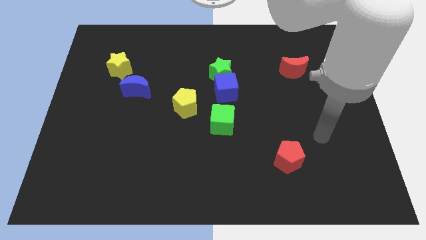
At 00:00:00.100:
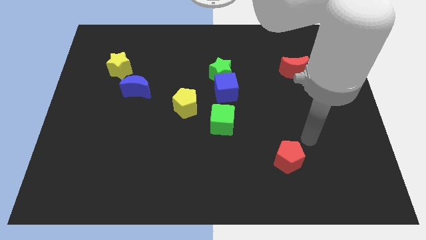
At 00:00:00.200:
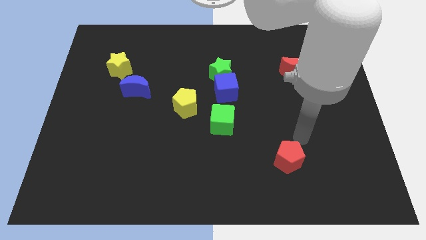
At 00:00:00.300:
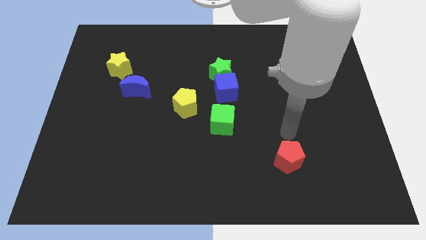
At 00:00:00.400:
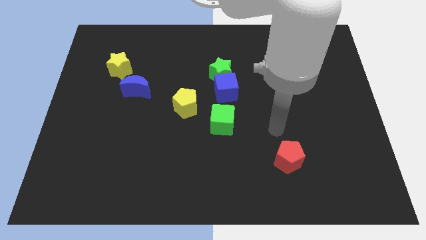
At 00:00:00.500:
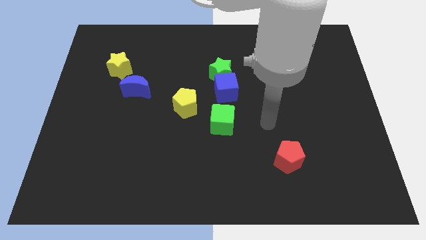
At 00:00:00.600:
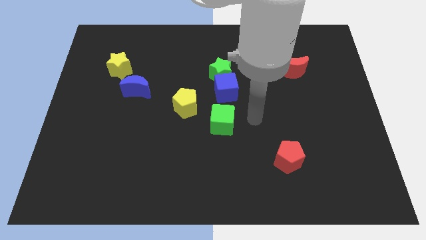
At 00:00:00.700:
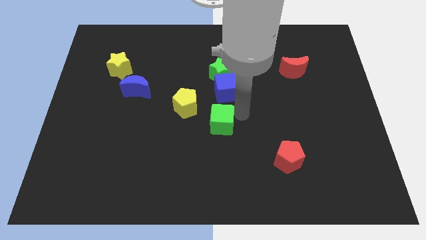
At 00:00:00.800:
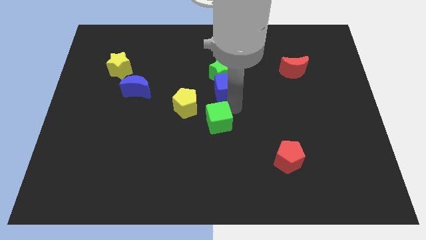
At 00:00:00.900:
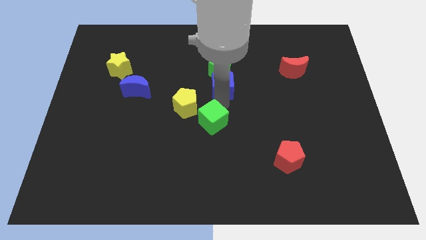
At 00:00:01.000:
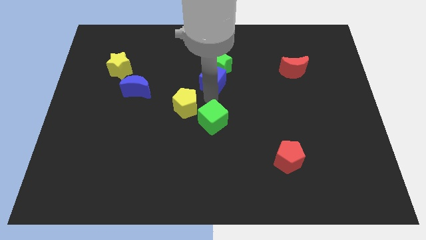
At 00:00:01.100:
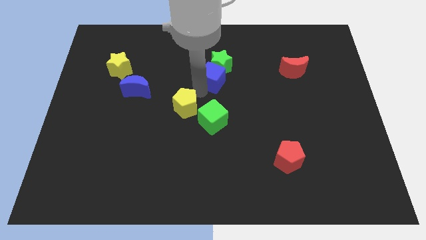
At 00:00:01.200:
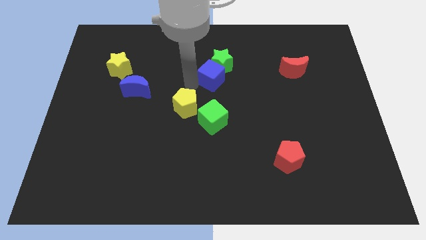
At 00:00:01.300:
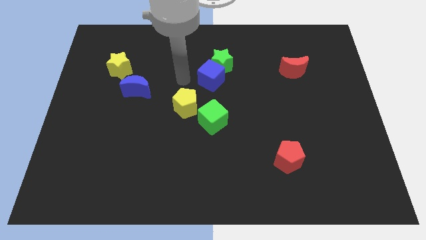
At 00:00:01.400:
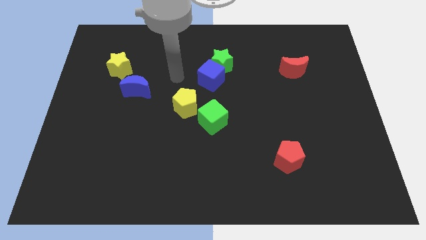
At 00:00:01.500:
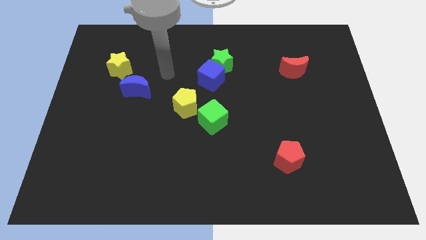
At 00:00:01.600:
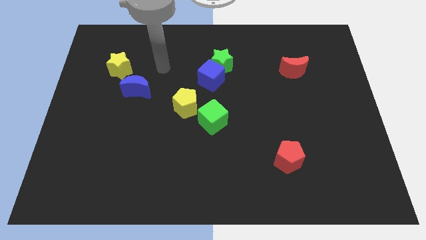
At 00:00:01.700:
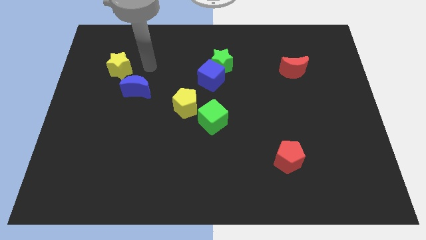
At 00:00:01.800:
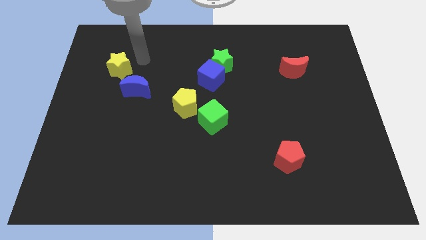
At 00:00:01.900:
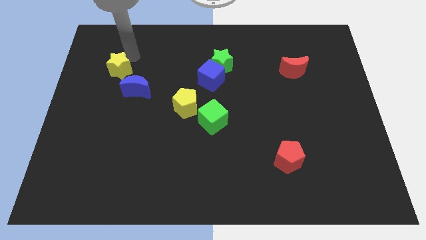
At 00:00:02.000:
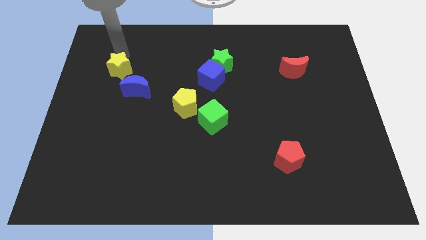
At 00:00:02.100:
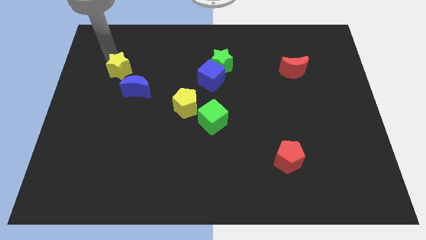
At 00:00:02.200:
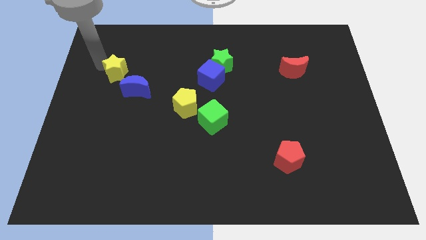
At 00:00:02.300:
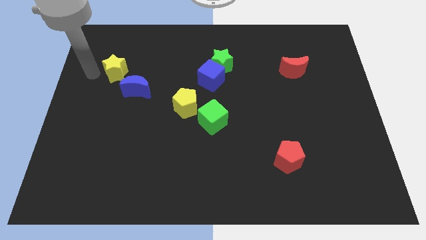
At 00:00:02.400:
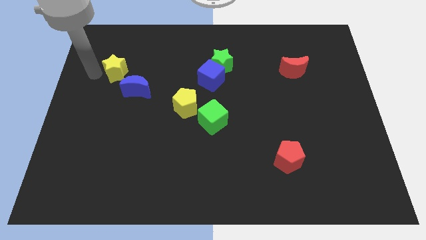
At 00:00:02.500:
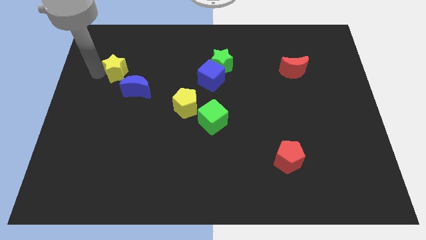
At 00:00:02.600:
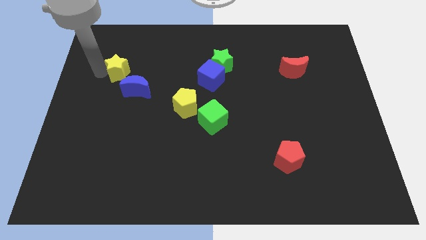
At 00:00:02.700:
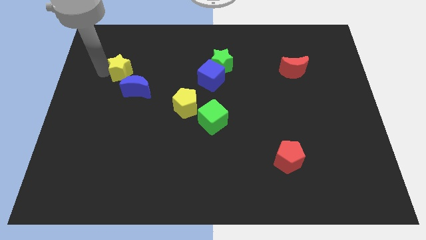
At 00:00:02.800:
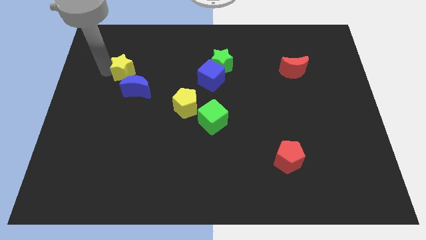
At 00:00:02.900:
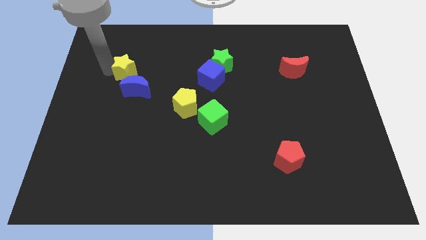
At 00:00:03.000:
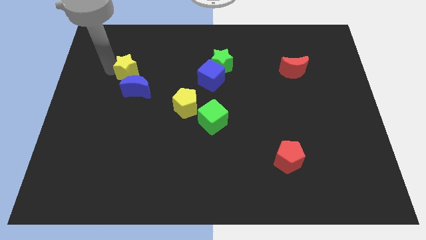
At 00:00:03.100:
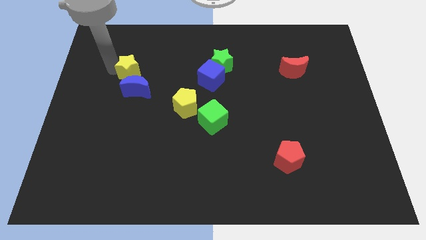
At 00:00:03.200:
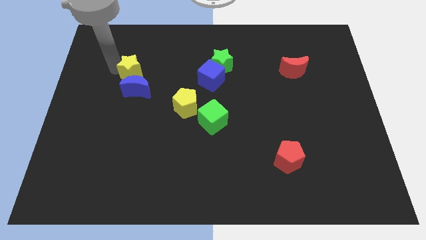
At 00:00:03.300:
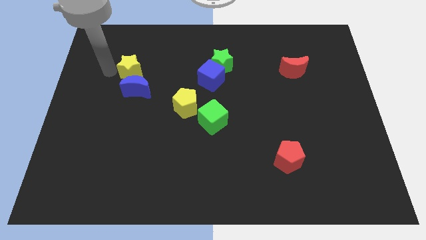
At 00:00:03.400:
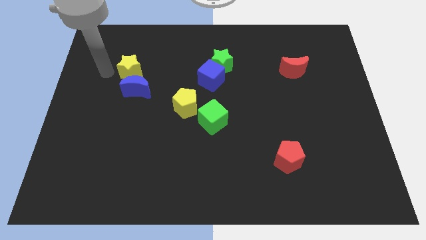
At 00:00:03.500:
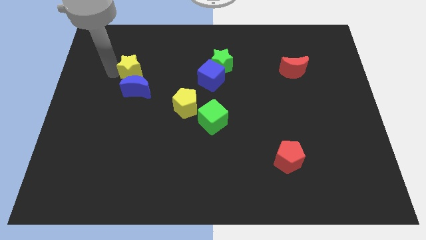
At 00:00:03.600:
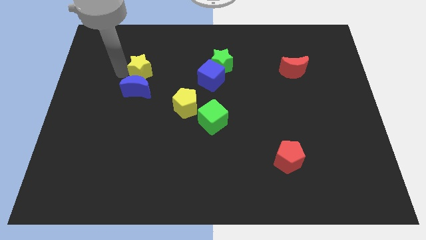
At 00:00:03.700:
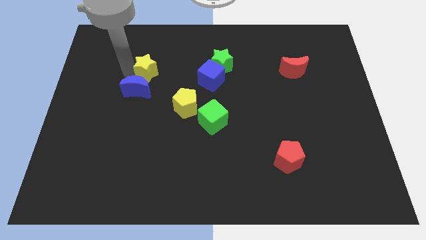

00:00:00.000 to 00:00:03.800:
move the yellow star a little bit to the right

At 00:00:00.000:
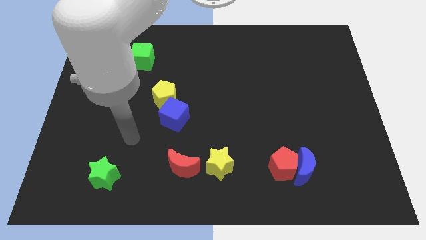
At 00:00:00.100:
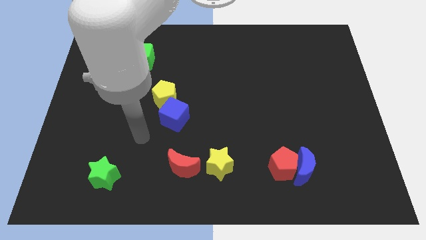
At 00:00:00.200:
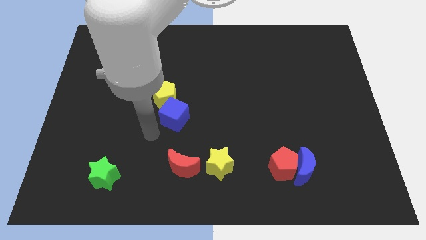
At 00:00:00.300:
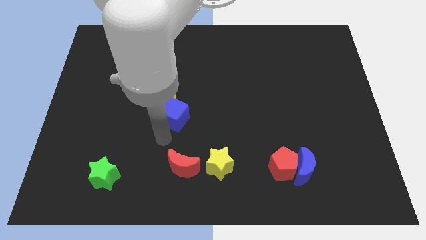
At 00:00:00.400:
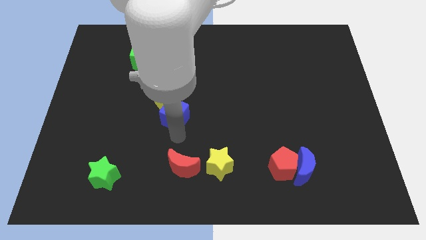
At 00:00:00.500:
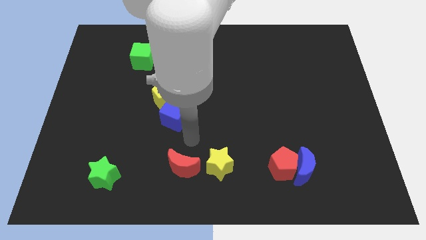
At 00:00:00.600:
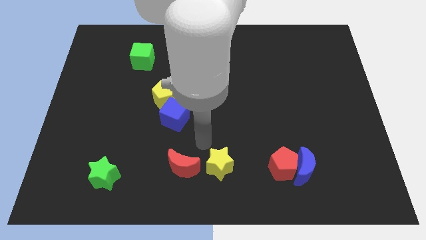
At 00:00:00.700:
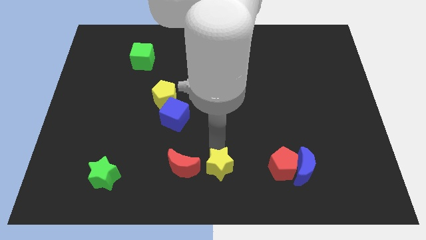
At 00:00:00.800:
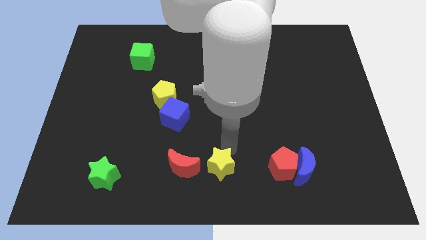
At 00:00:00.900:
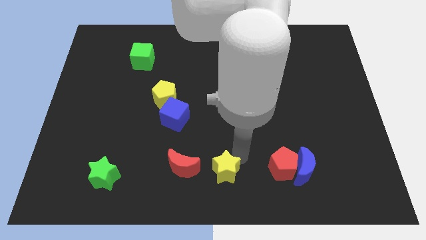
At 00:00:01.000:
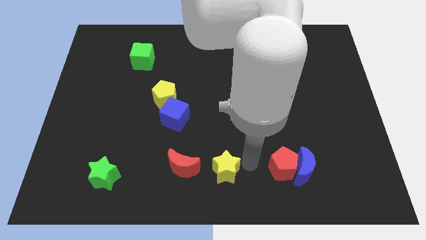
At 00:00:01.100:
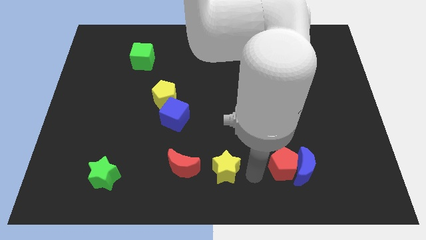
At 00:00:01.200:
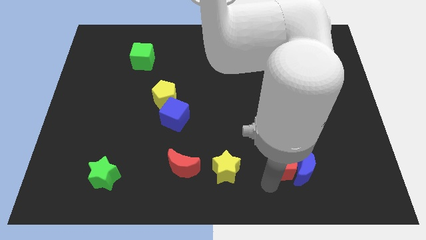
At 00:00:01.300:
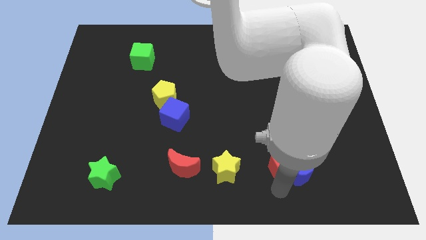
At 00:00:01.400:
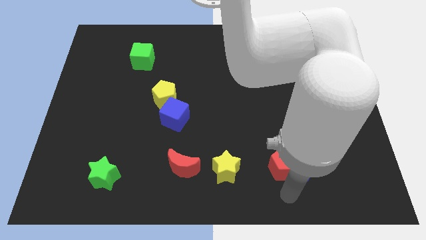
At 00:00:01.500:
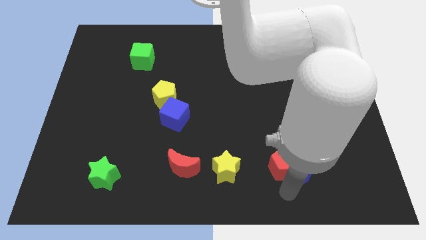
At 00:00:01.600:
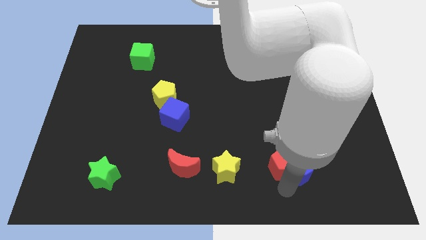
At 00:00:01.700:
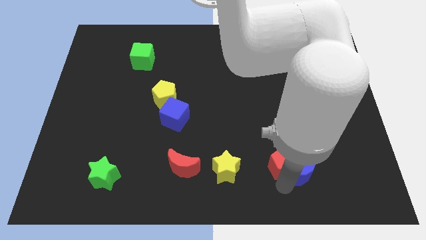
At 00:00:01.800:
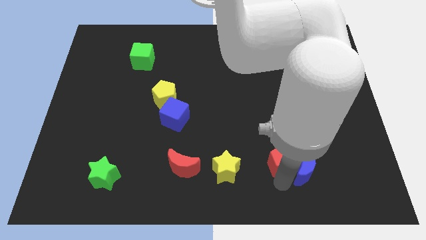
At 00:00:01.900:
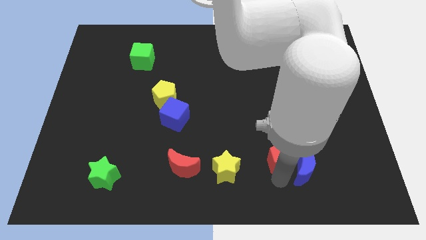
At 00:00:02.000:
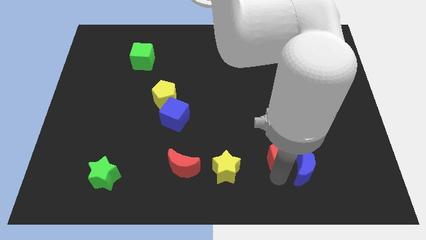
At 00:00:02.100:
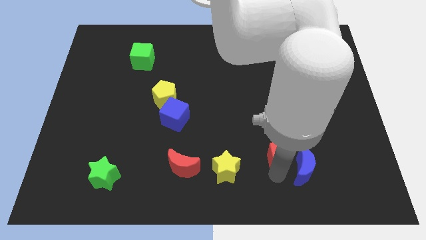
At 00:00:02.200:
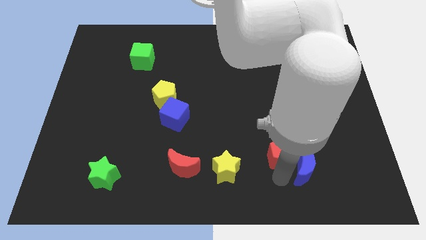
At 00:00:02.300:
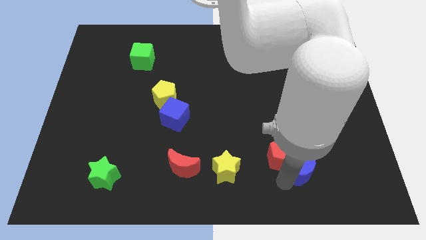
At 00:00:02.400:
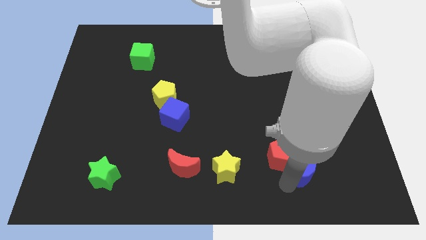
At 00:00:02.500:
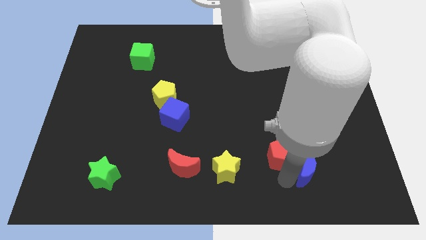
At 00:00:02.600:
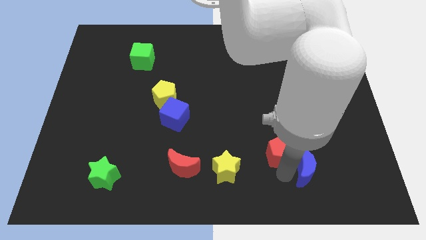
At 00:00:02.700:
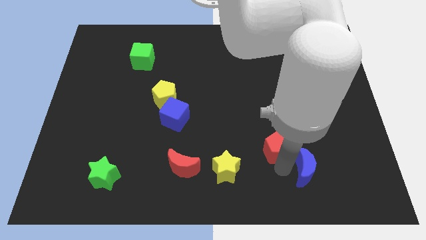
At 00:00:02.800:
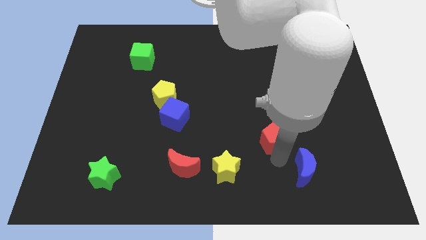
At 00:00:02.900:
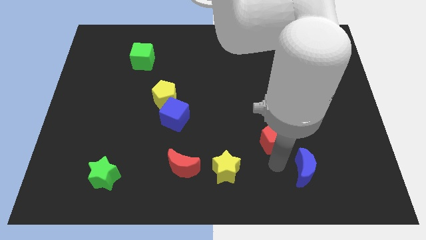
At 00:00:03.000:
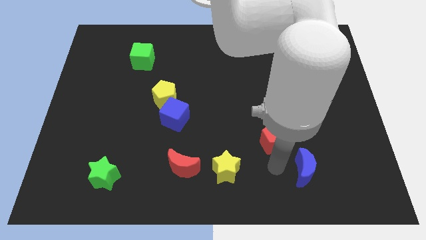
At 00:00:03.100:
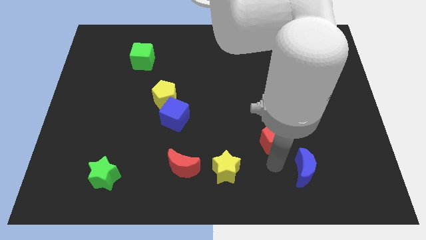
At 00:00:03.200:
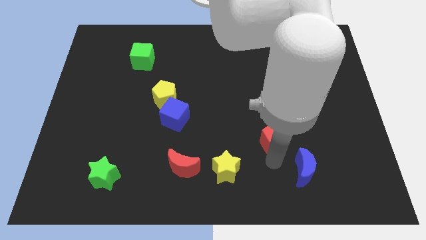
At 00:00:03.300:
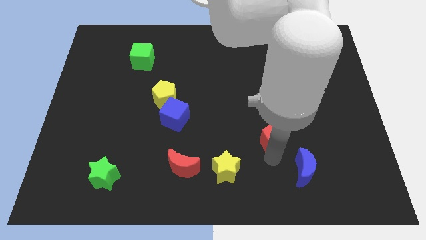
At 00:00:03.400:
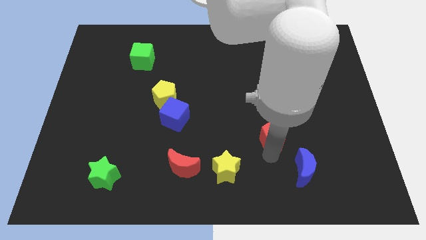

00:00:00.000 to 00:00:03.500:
move the red pentagon slightly upwards

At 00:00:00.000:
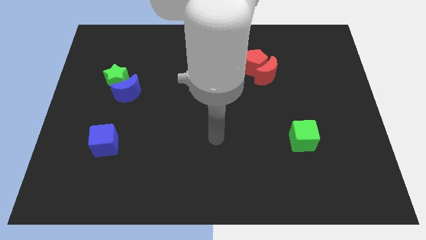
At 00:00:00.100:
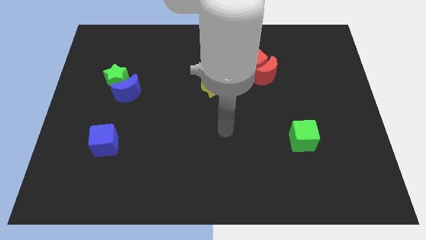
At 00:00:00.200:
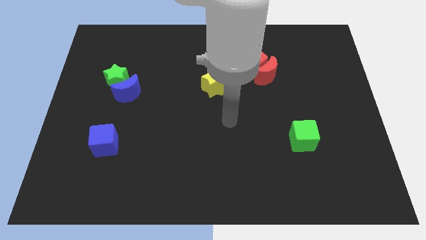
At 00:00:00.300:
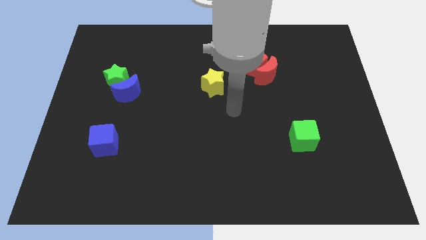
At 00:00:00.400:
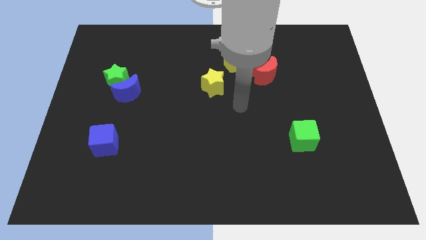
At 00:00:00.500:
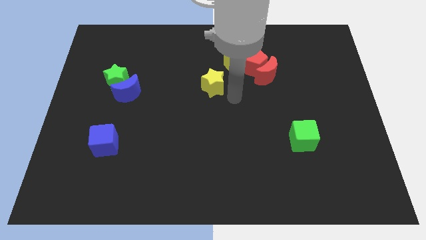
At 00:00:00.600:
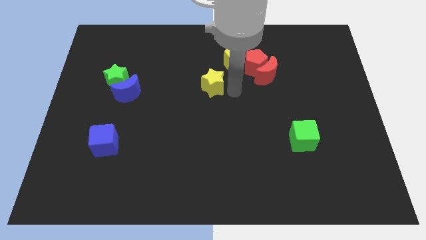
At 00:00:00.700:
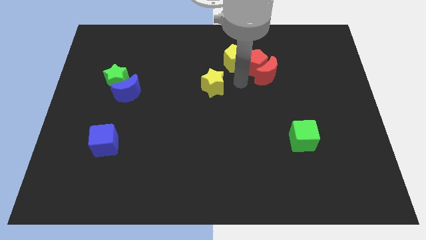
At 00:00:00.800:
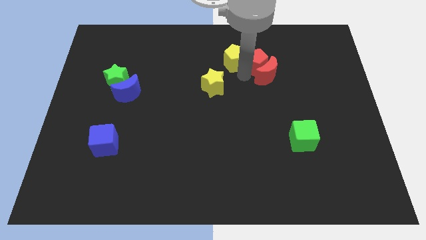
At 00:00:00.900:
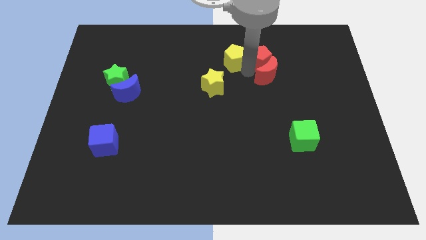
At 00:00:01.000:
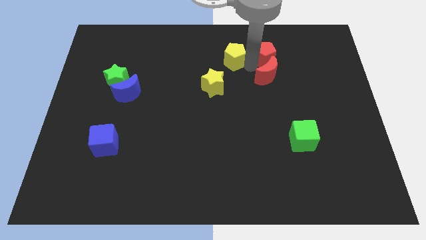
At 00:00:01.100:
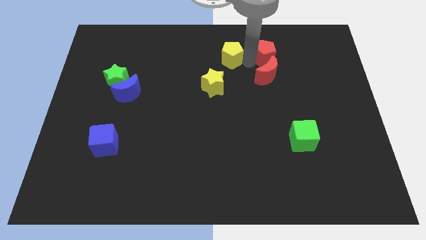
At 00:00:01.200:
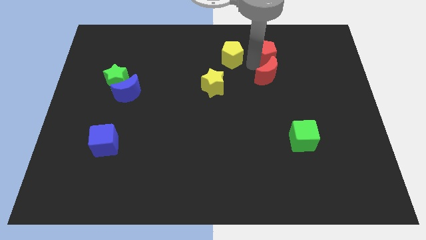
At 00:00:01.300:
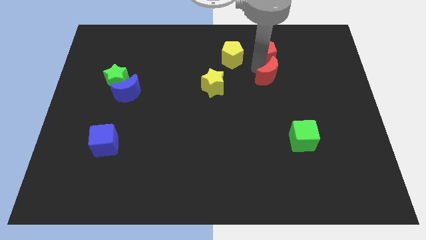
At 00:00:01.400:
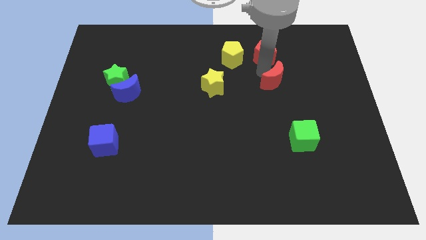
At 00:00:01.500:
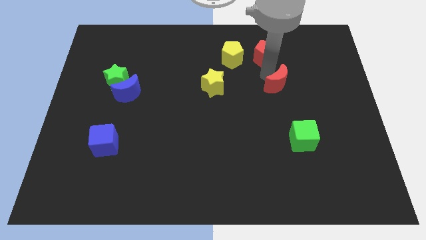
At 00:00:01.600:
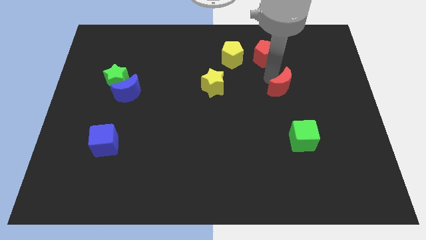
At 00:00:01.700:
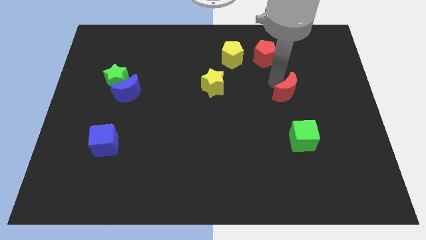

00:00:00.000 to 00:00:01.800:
push the red moon a little down and then to the right
